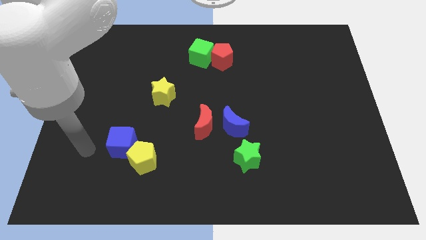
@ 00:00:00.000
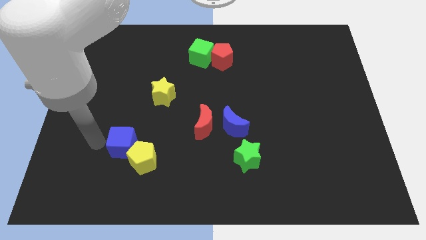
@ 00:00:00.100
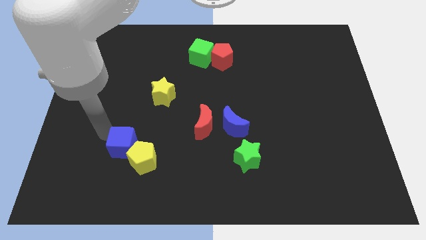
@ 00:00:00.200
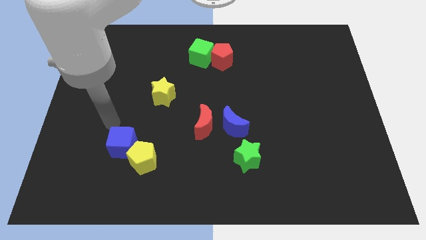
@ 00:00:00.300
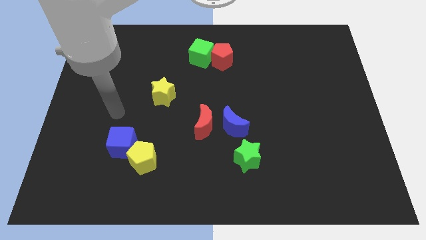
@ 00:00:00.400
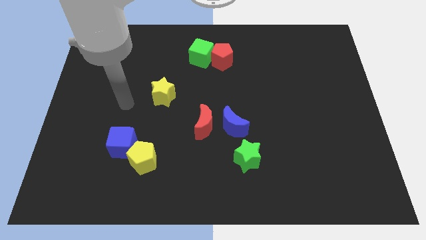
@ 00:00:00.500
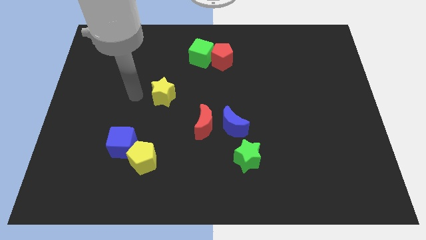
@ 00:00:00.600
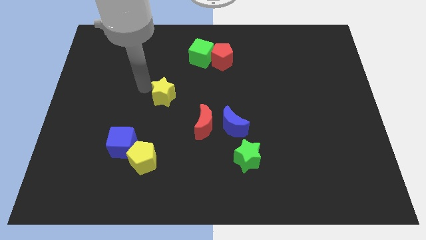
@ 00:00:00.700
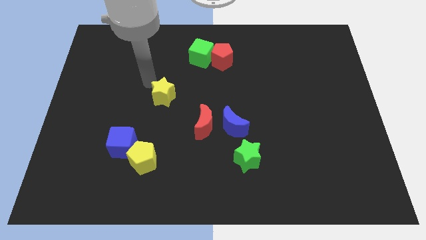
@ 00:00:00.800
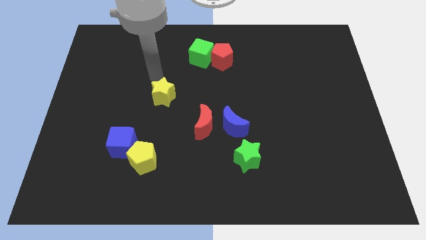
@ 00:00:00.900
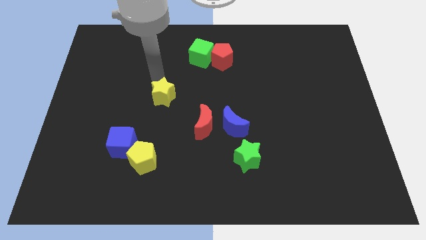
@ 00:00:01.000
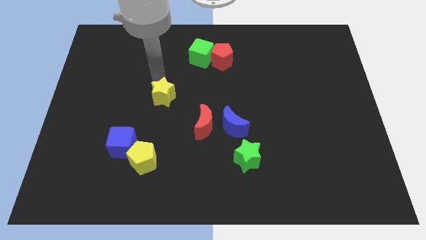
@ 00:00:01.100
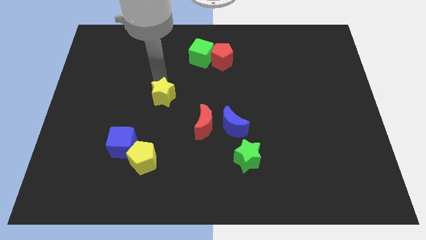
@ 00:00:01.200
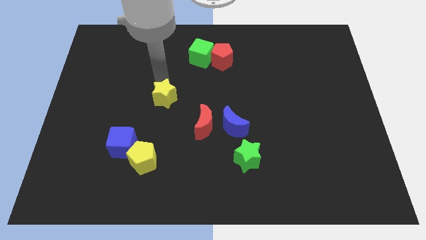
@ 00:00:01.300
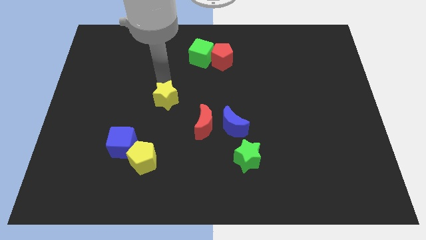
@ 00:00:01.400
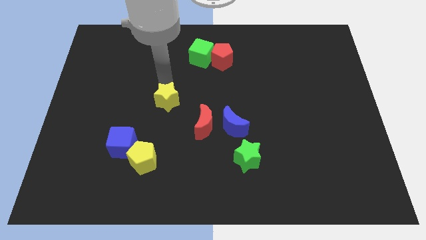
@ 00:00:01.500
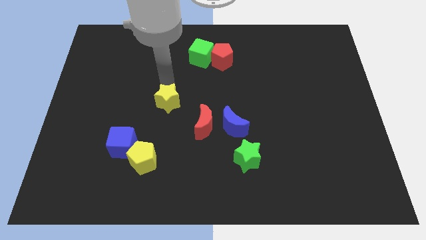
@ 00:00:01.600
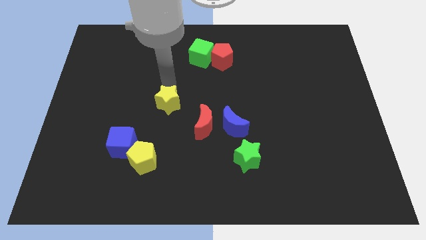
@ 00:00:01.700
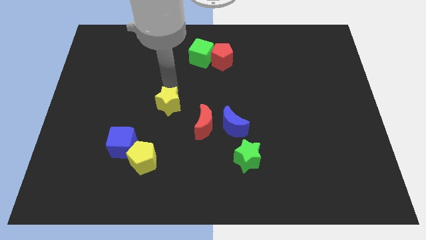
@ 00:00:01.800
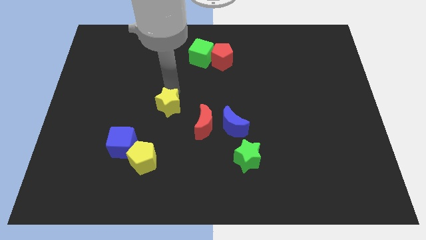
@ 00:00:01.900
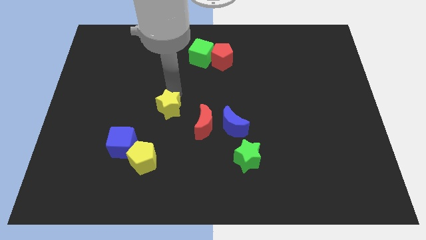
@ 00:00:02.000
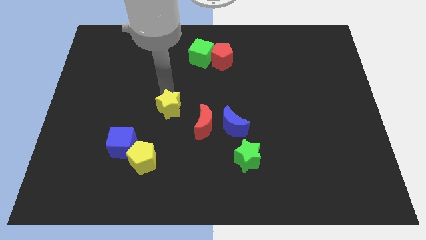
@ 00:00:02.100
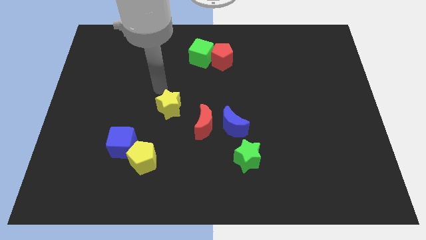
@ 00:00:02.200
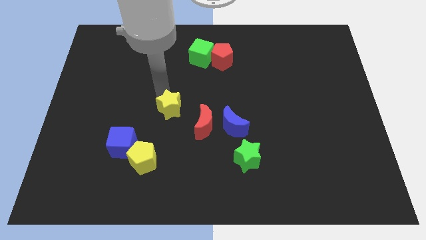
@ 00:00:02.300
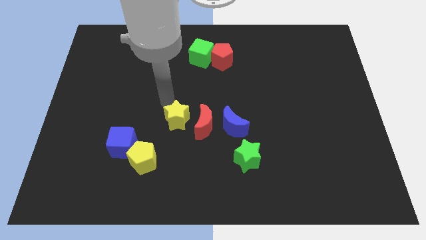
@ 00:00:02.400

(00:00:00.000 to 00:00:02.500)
slide the yellow star downwards and right diagonally a little bit

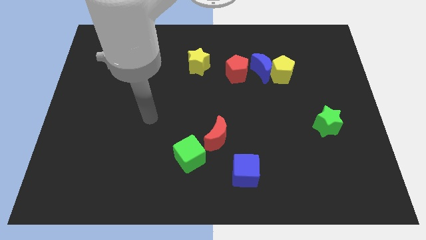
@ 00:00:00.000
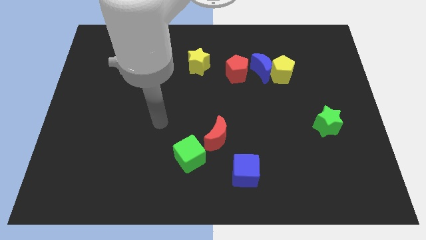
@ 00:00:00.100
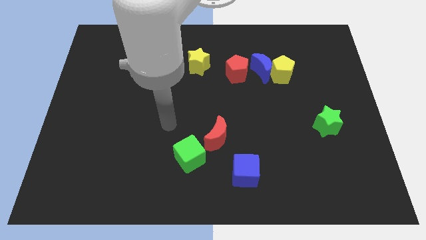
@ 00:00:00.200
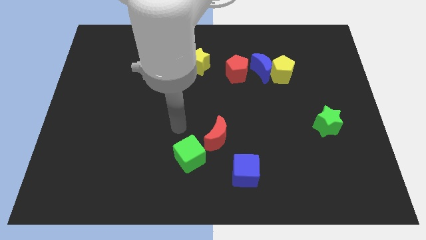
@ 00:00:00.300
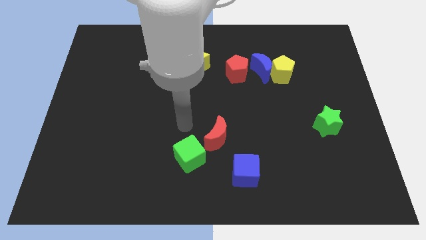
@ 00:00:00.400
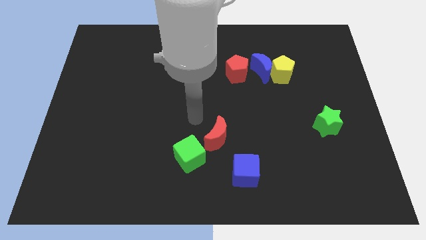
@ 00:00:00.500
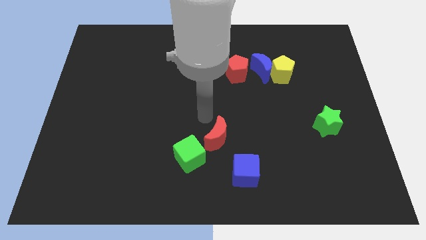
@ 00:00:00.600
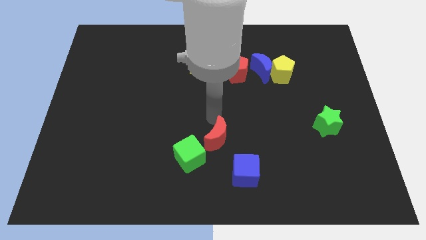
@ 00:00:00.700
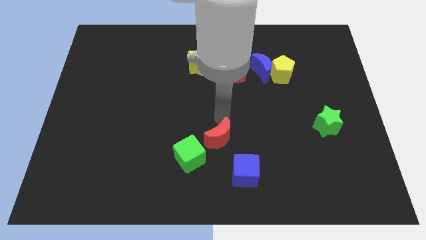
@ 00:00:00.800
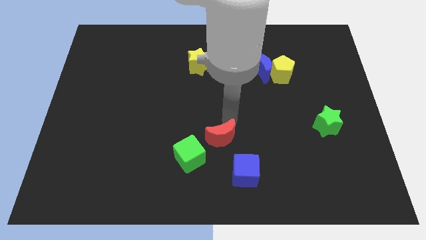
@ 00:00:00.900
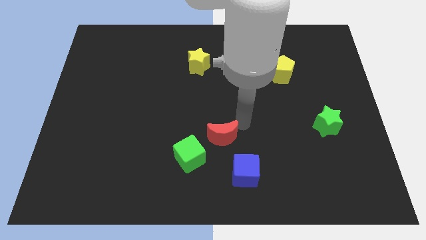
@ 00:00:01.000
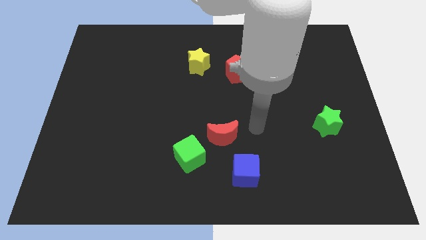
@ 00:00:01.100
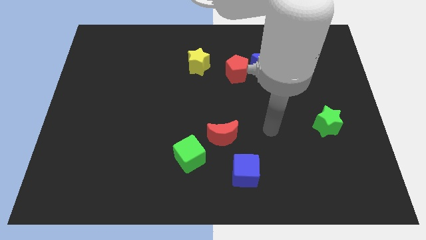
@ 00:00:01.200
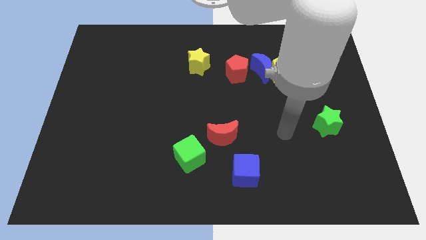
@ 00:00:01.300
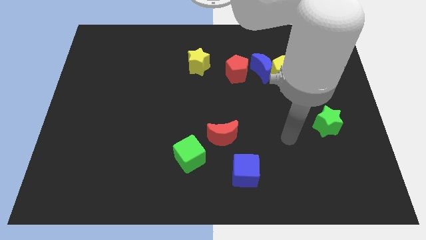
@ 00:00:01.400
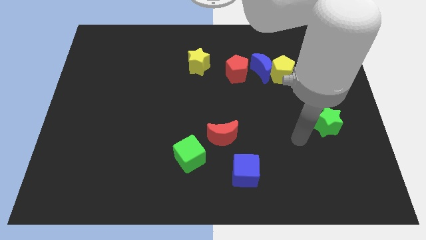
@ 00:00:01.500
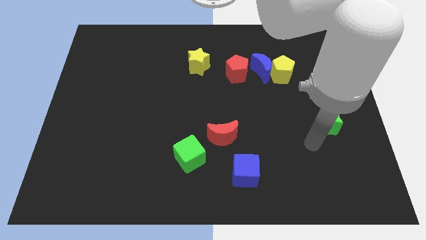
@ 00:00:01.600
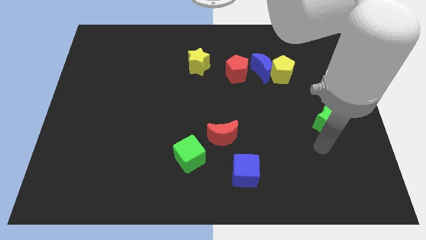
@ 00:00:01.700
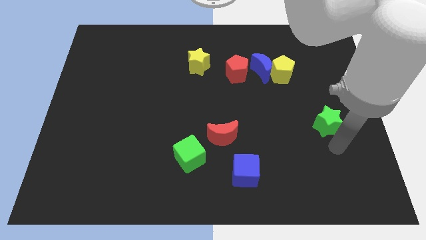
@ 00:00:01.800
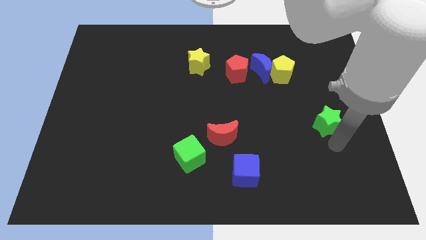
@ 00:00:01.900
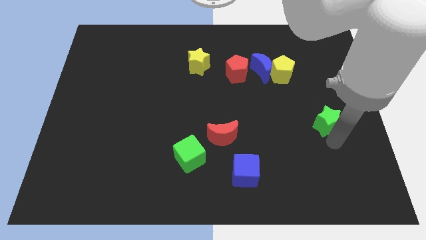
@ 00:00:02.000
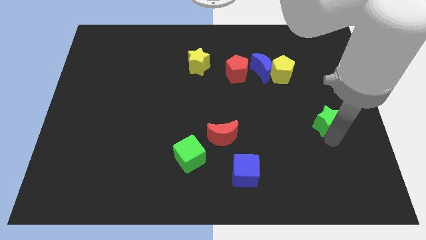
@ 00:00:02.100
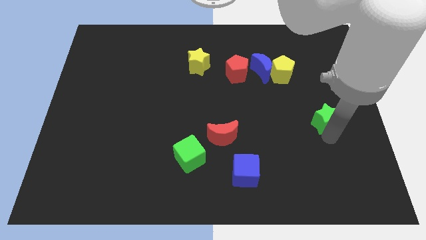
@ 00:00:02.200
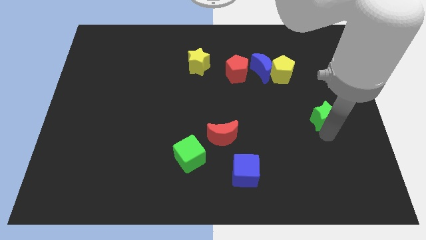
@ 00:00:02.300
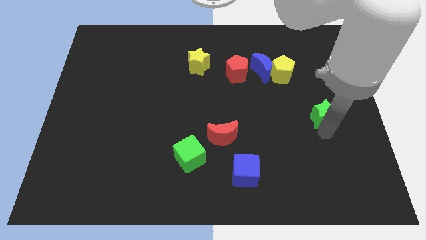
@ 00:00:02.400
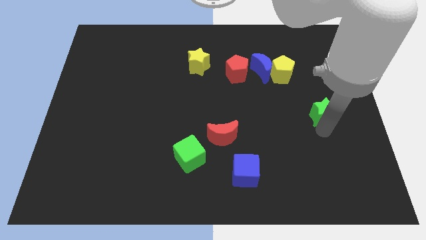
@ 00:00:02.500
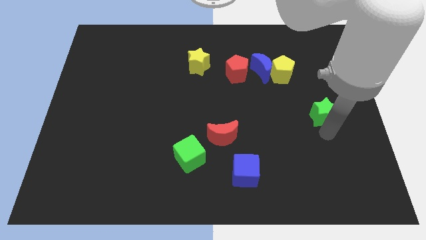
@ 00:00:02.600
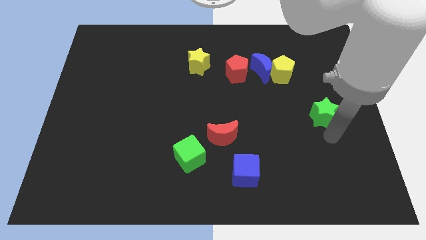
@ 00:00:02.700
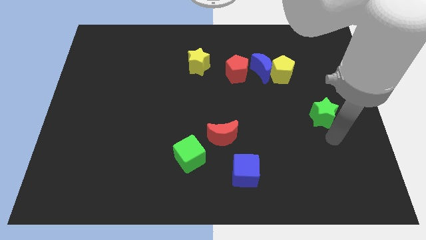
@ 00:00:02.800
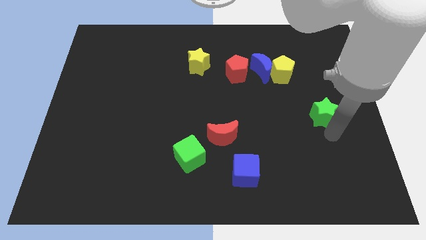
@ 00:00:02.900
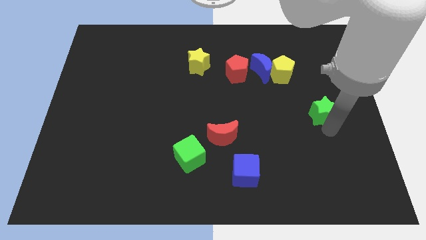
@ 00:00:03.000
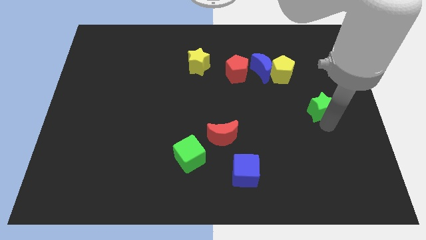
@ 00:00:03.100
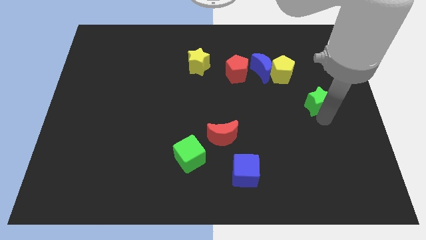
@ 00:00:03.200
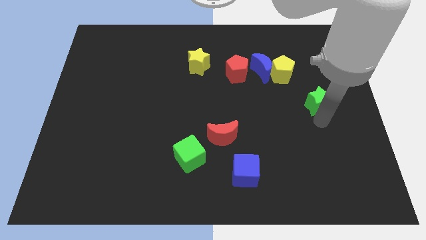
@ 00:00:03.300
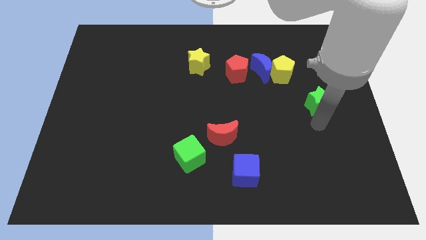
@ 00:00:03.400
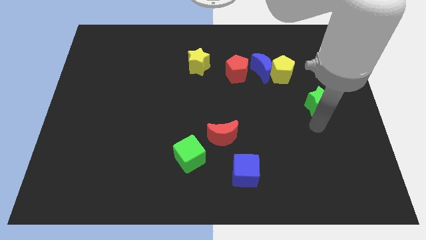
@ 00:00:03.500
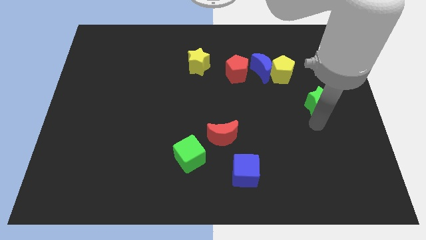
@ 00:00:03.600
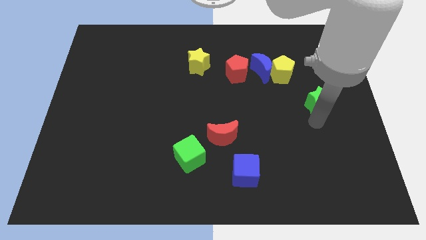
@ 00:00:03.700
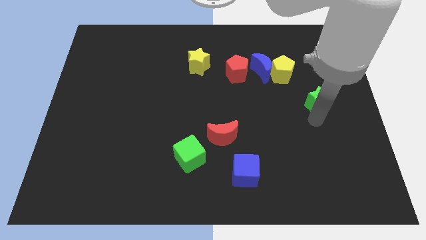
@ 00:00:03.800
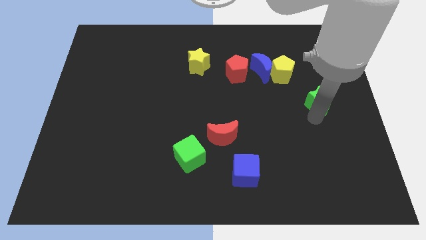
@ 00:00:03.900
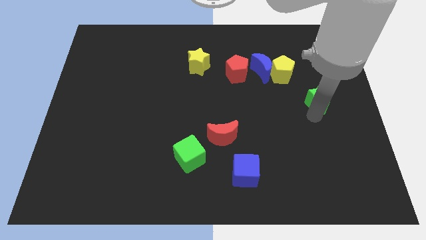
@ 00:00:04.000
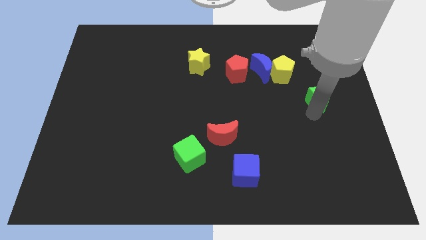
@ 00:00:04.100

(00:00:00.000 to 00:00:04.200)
slightly push the green star upwards

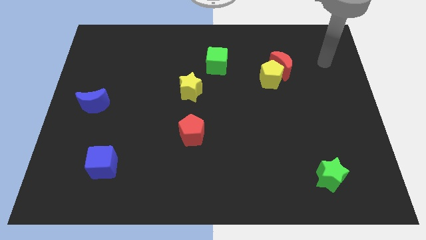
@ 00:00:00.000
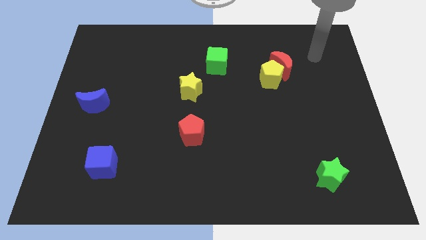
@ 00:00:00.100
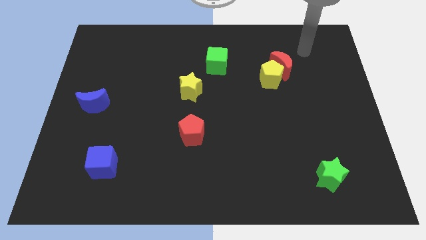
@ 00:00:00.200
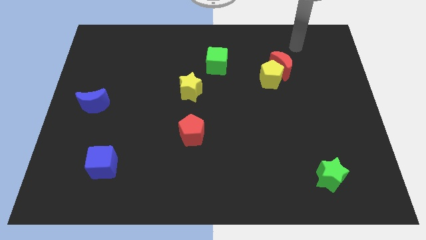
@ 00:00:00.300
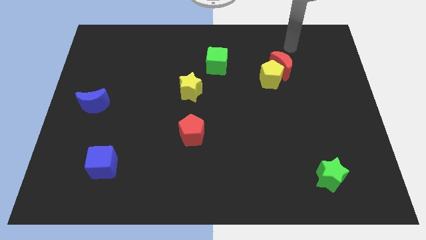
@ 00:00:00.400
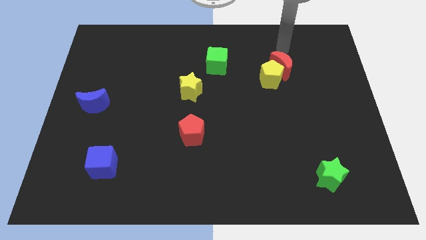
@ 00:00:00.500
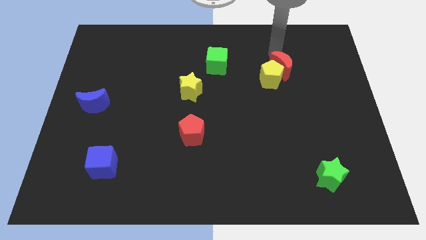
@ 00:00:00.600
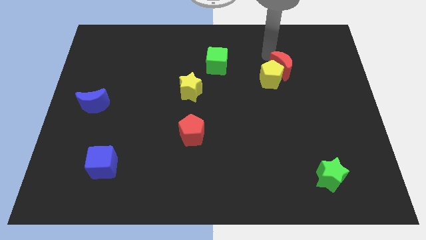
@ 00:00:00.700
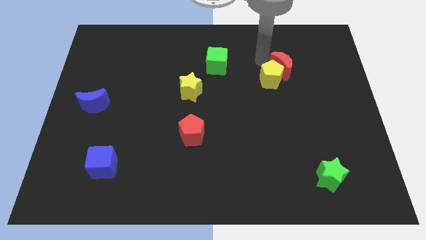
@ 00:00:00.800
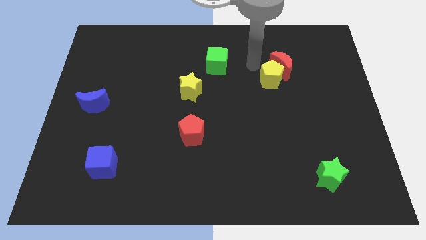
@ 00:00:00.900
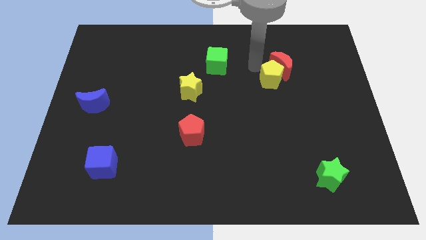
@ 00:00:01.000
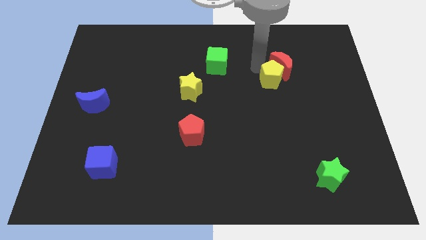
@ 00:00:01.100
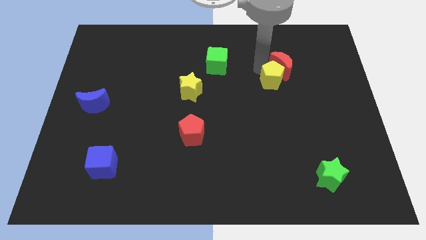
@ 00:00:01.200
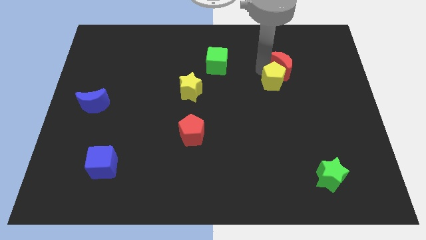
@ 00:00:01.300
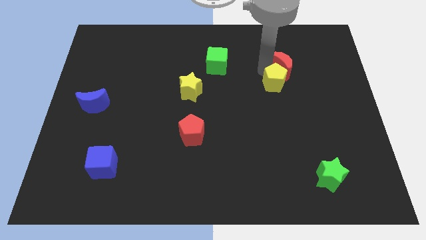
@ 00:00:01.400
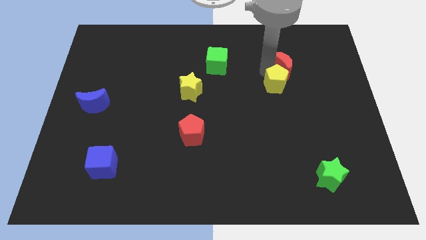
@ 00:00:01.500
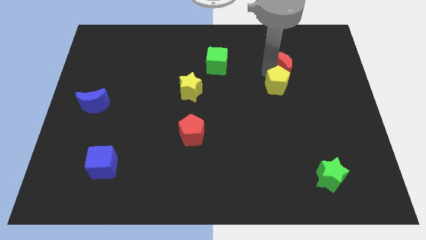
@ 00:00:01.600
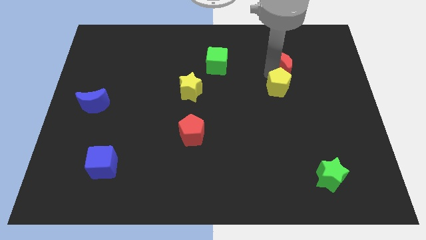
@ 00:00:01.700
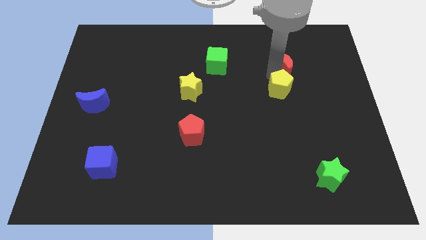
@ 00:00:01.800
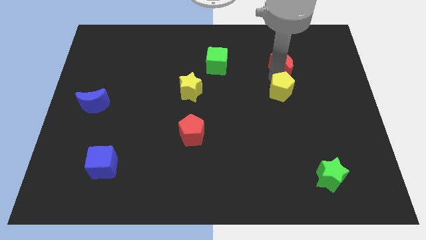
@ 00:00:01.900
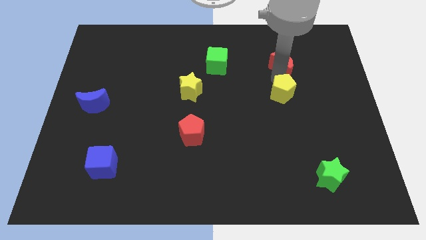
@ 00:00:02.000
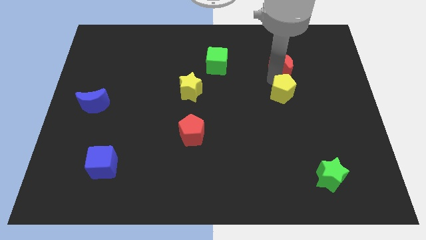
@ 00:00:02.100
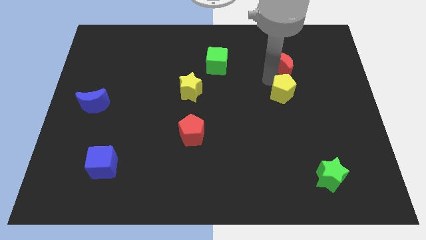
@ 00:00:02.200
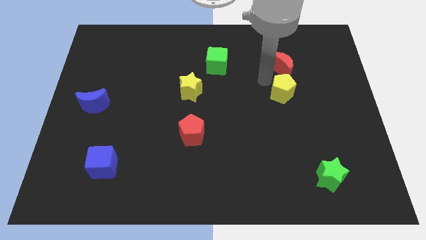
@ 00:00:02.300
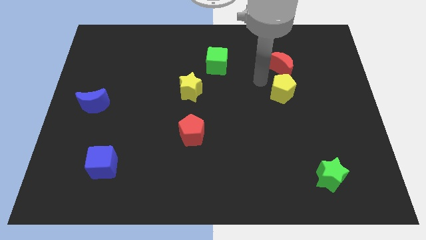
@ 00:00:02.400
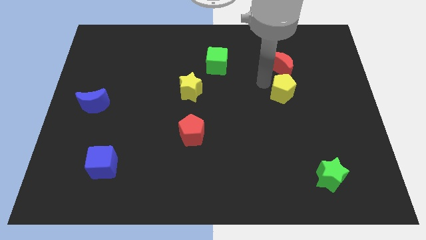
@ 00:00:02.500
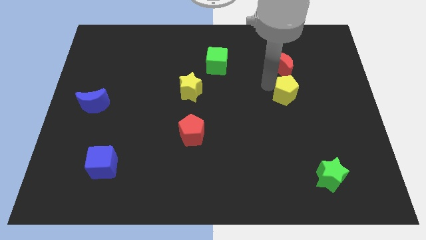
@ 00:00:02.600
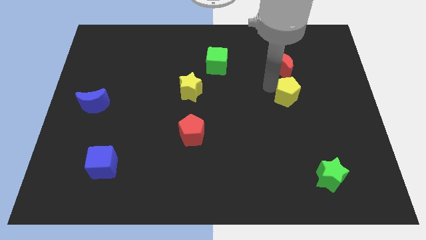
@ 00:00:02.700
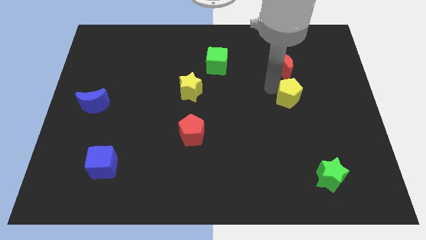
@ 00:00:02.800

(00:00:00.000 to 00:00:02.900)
slide the yellow pentagon somewhat down and to the right
